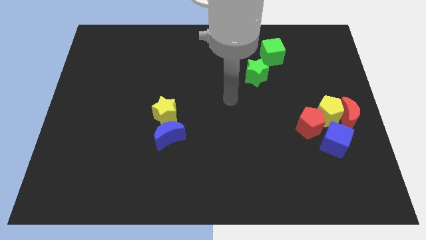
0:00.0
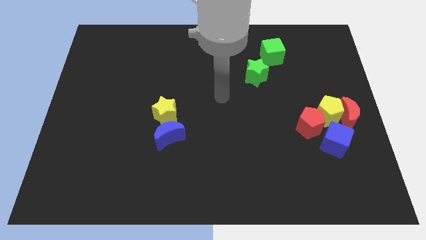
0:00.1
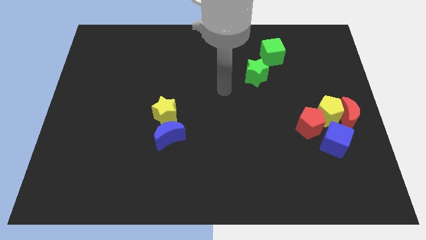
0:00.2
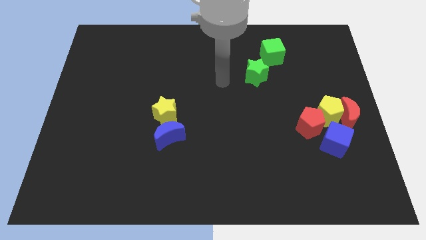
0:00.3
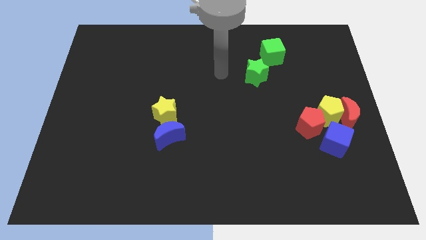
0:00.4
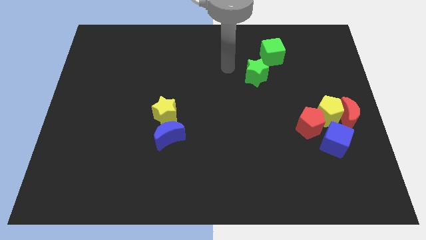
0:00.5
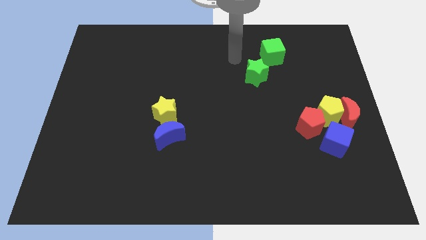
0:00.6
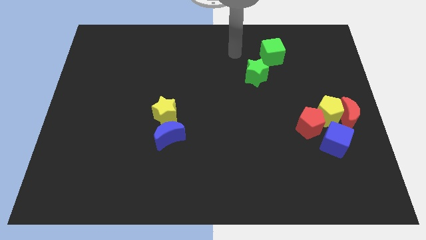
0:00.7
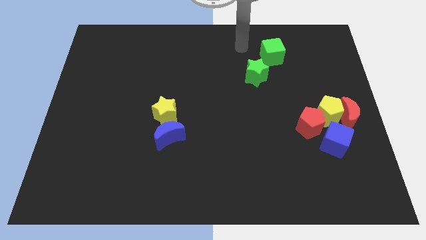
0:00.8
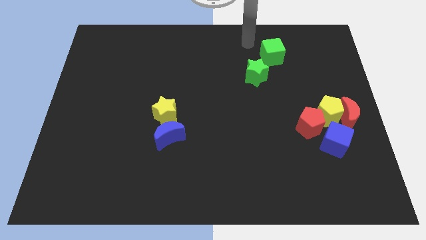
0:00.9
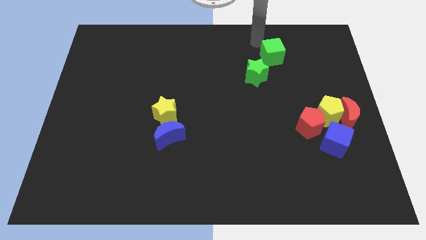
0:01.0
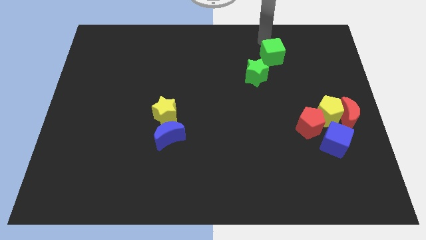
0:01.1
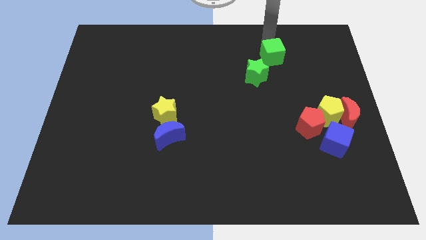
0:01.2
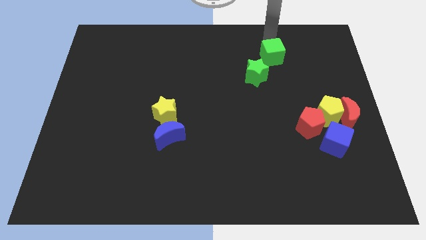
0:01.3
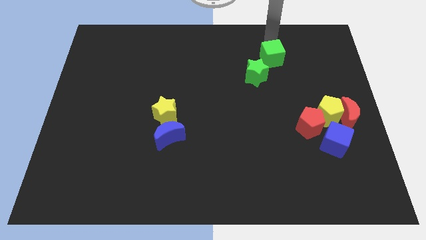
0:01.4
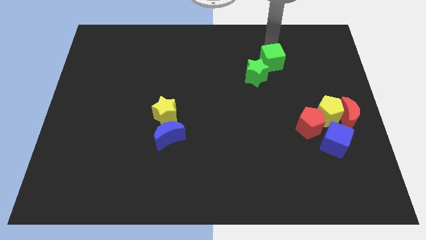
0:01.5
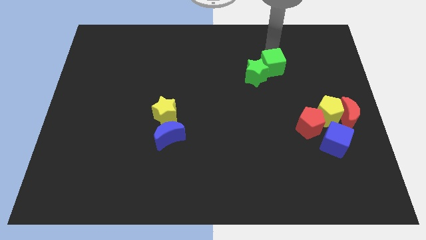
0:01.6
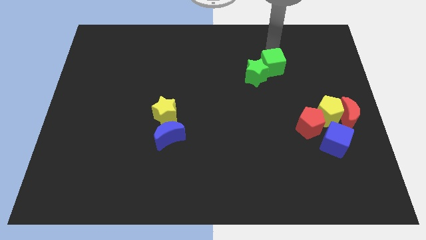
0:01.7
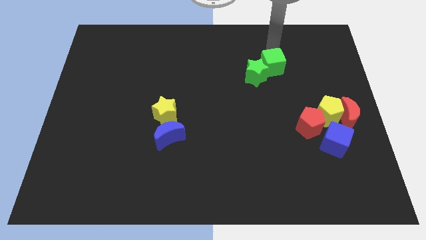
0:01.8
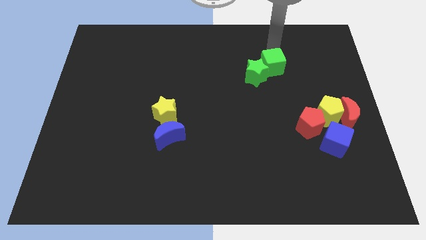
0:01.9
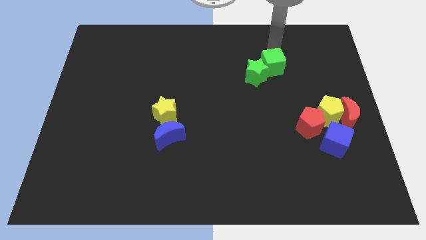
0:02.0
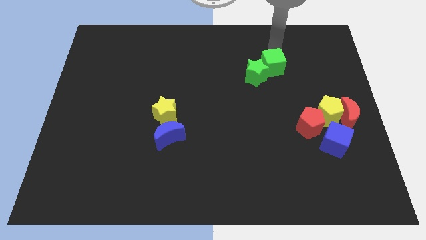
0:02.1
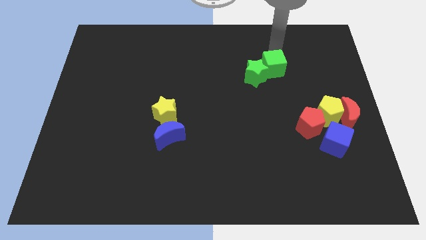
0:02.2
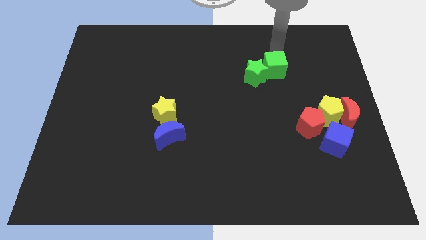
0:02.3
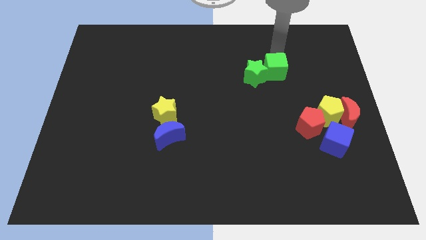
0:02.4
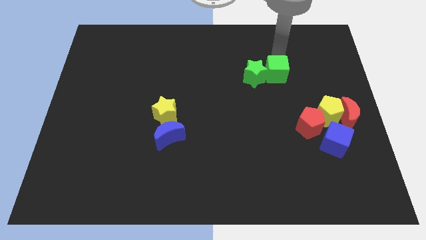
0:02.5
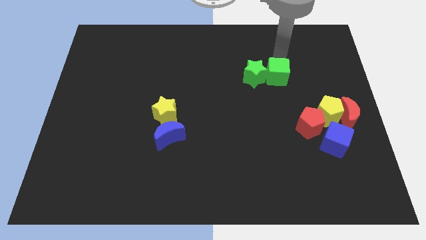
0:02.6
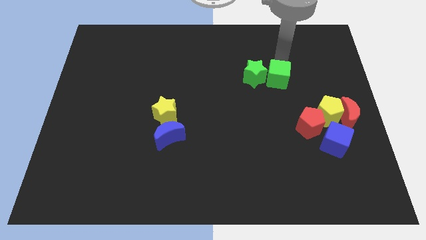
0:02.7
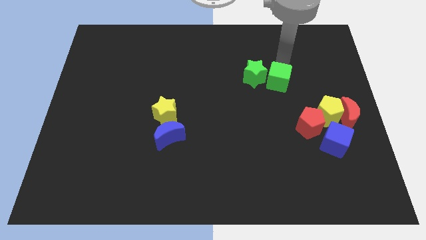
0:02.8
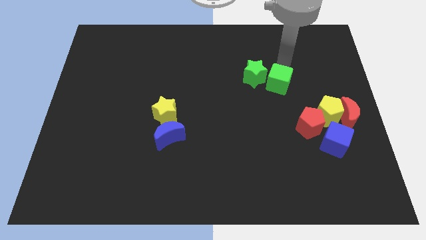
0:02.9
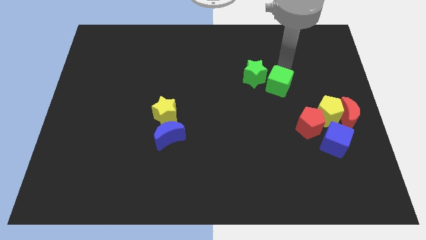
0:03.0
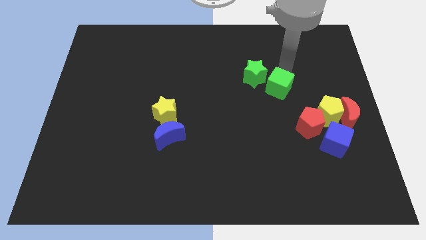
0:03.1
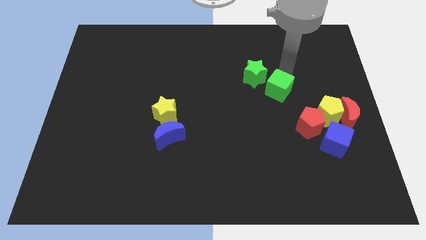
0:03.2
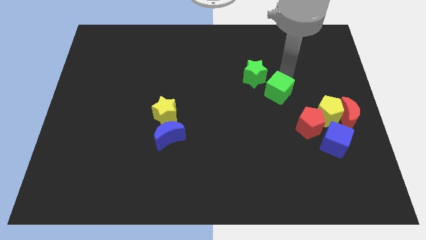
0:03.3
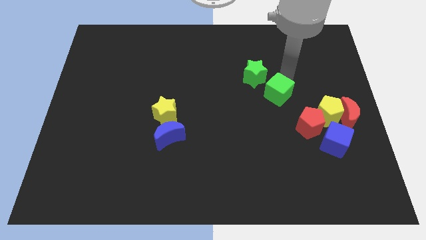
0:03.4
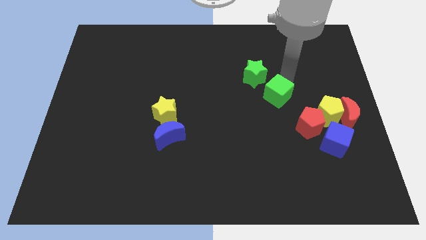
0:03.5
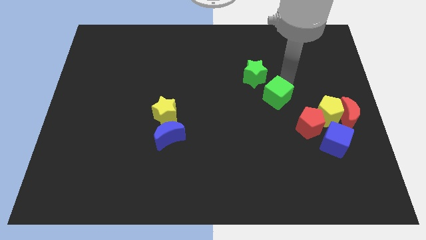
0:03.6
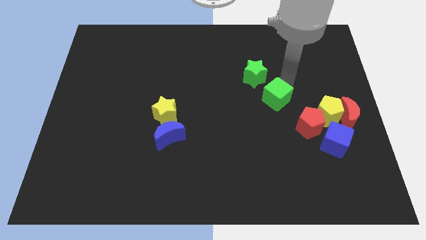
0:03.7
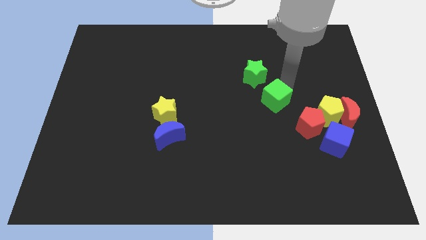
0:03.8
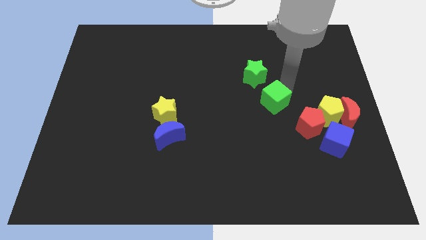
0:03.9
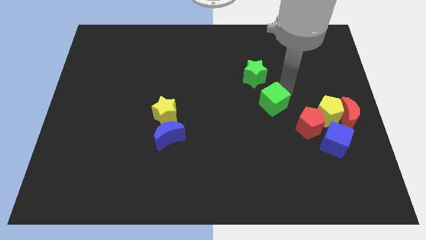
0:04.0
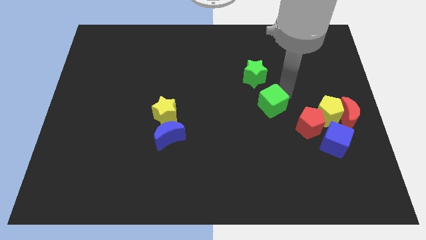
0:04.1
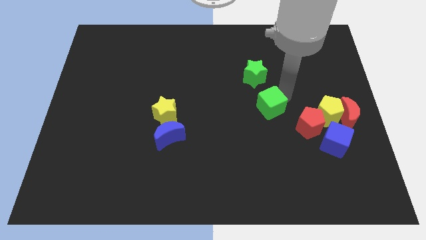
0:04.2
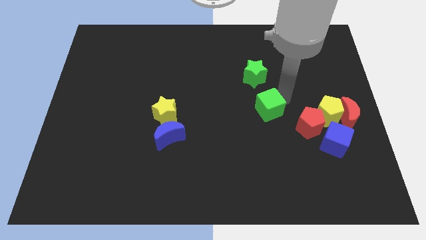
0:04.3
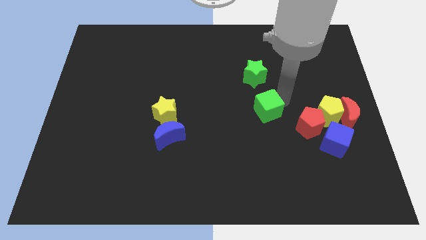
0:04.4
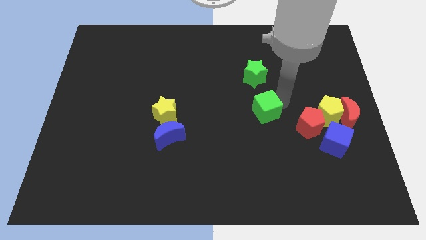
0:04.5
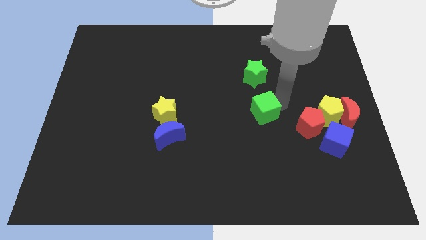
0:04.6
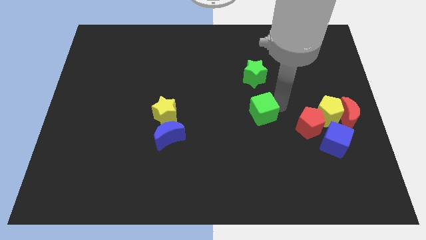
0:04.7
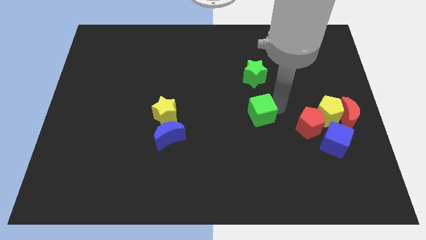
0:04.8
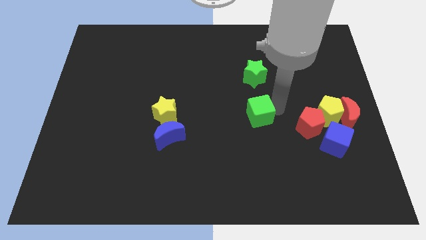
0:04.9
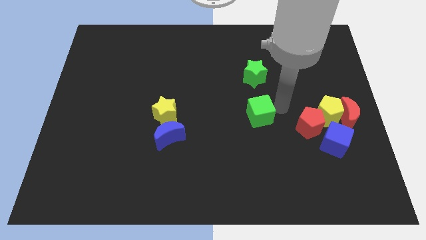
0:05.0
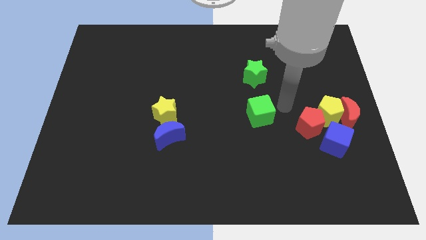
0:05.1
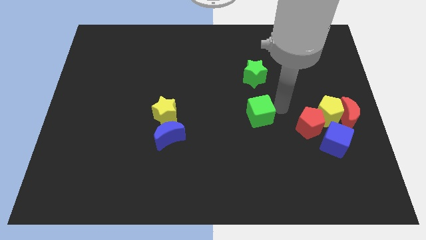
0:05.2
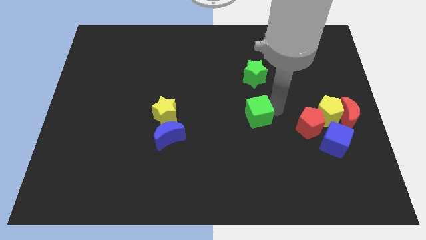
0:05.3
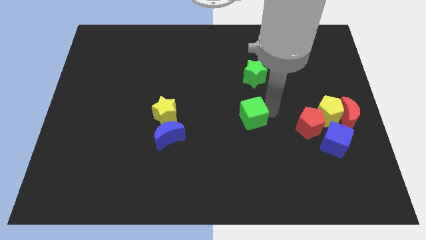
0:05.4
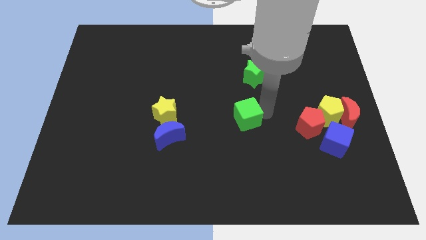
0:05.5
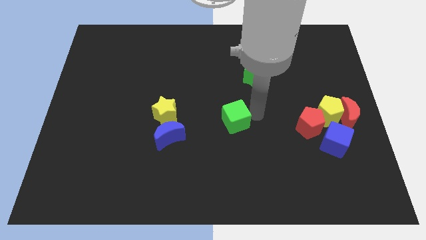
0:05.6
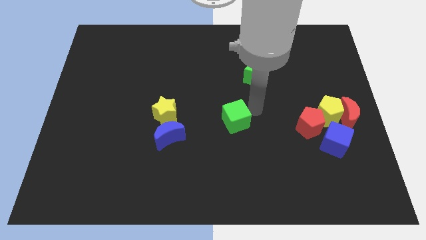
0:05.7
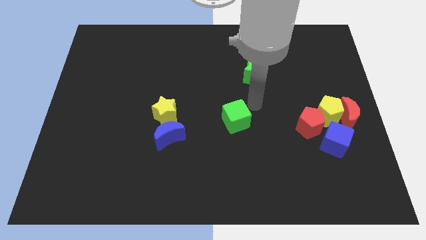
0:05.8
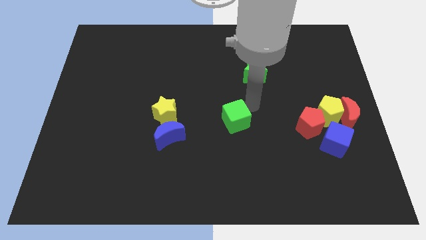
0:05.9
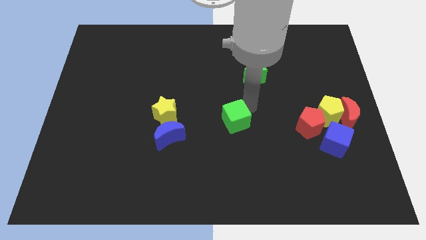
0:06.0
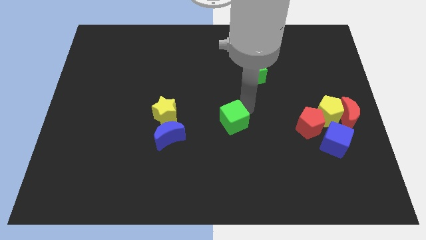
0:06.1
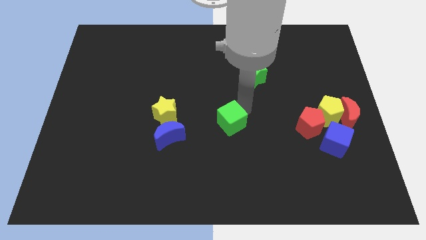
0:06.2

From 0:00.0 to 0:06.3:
slide the green cube to the right side of the blue moon

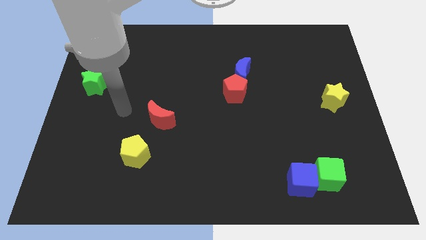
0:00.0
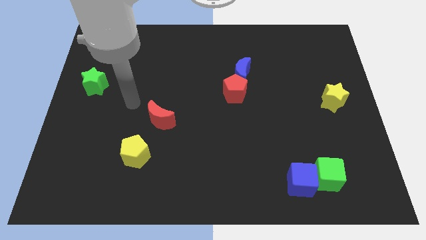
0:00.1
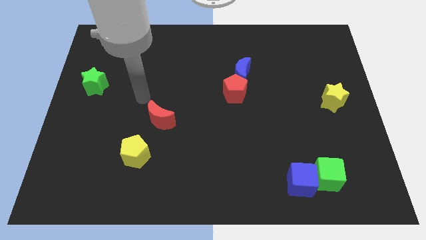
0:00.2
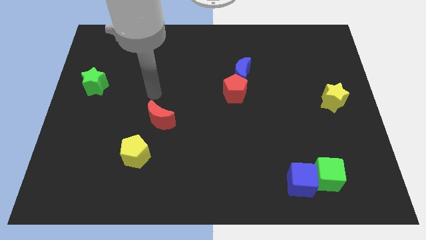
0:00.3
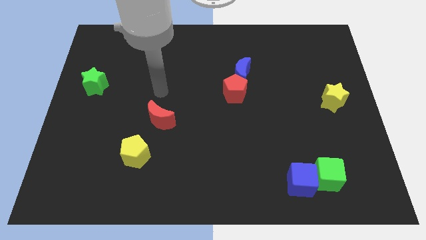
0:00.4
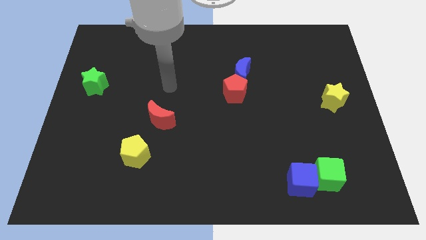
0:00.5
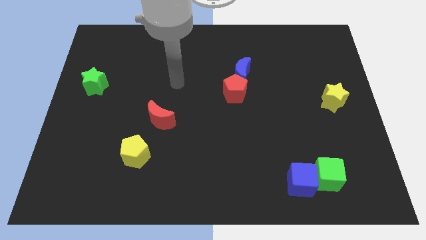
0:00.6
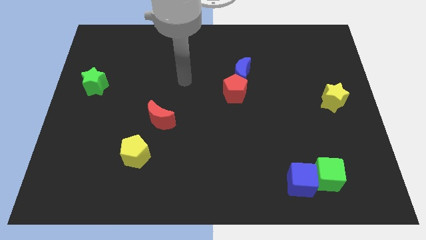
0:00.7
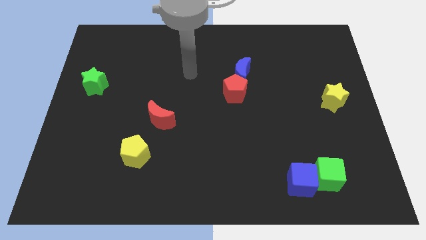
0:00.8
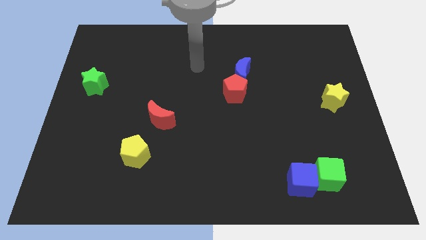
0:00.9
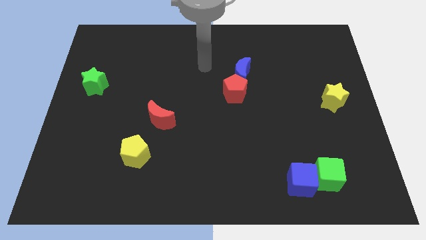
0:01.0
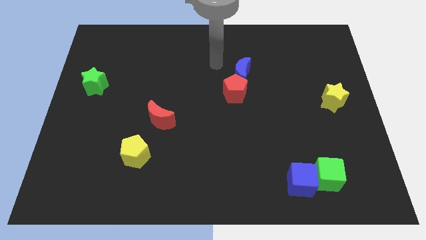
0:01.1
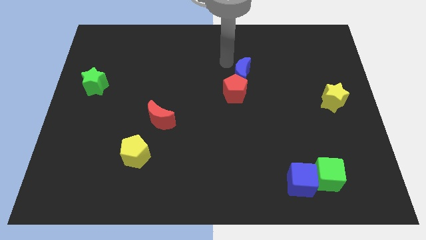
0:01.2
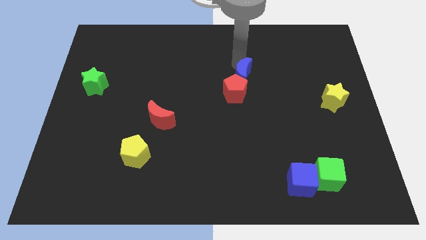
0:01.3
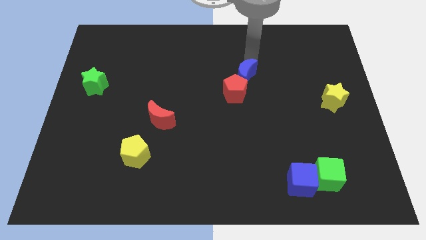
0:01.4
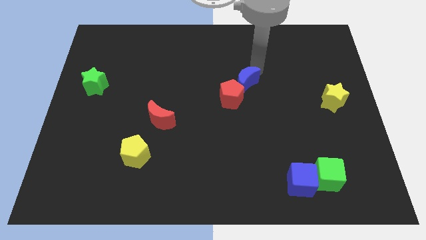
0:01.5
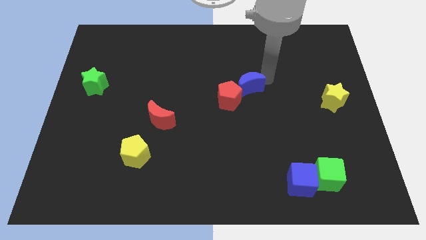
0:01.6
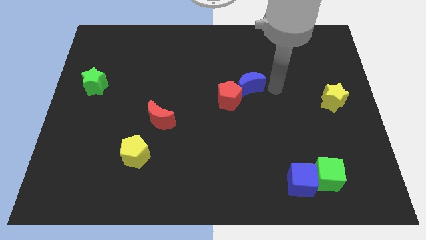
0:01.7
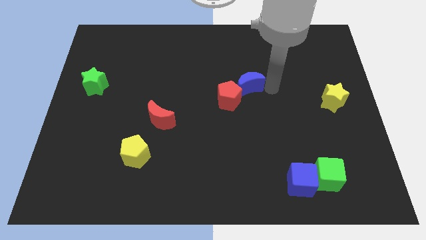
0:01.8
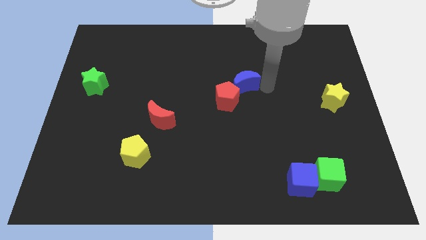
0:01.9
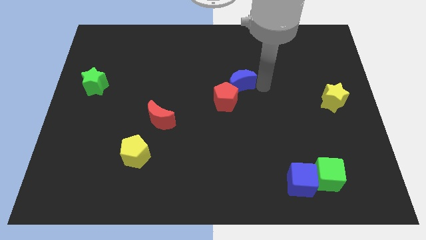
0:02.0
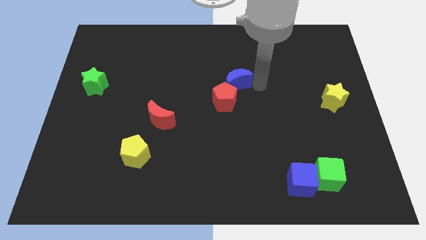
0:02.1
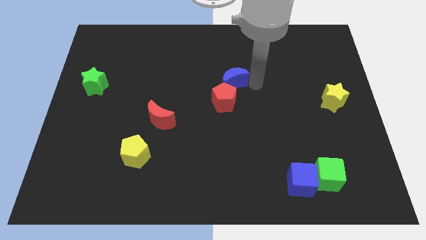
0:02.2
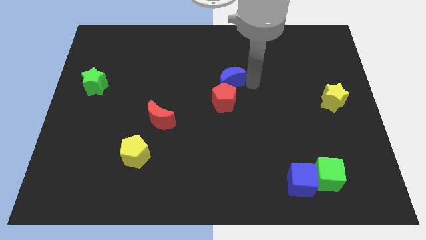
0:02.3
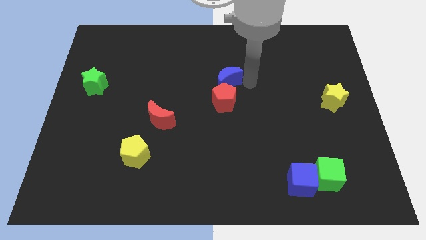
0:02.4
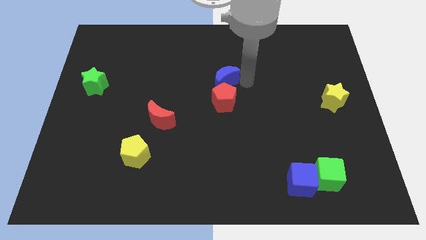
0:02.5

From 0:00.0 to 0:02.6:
put the blue moon to the top left side of the red pentagon
